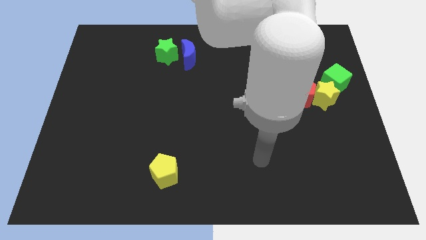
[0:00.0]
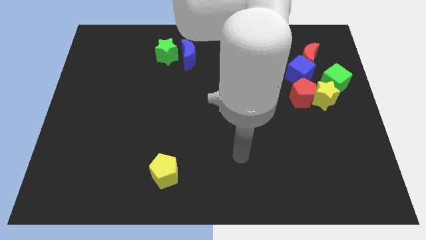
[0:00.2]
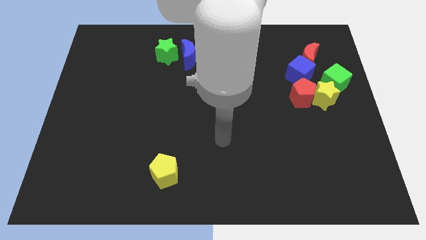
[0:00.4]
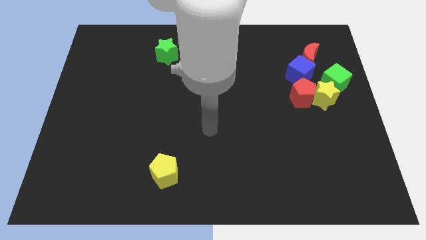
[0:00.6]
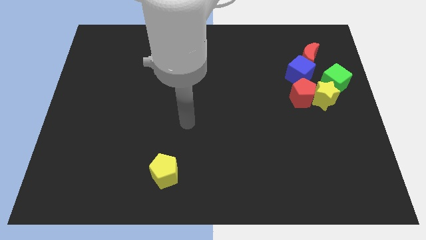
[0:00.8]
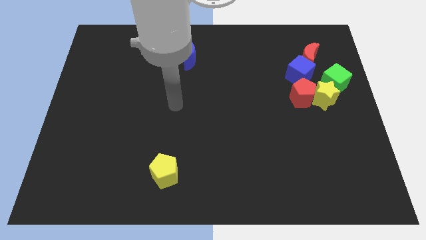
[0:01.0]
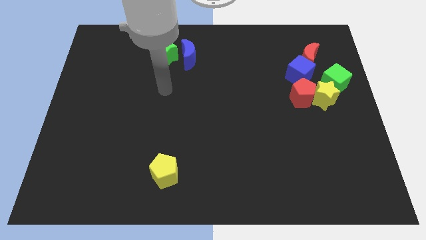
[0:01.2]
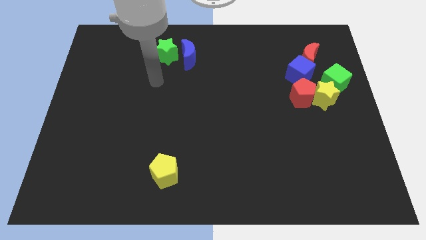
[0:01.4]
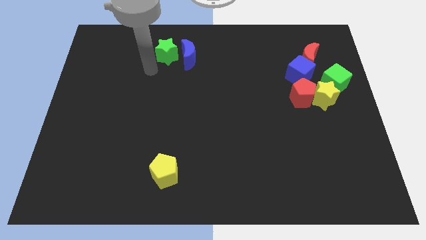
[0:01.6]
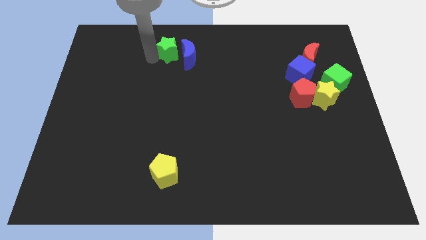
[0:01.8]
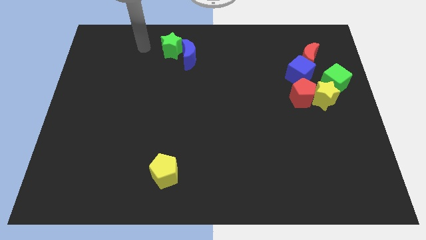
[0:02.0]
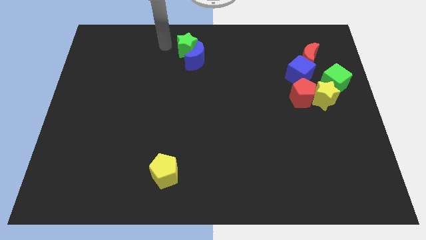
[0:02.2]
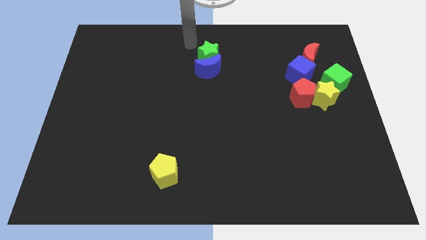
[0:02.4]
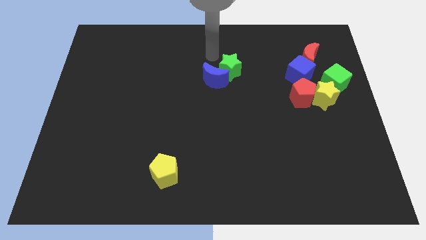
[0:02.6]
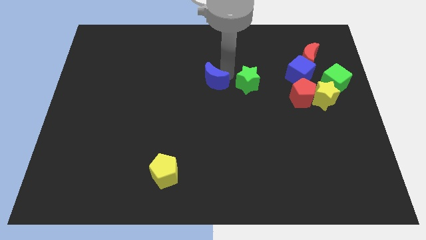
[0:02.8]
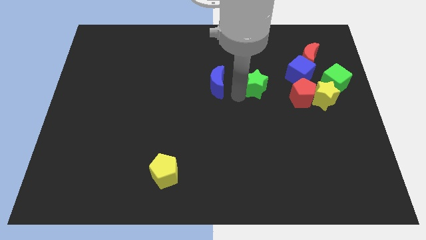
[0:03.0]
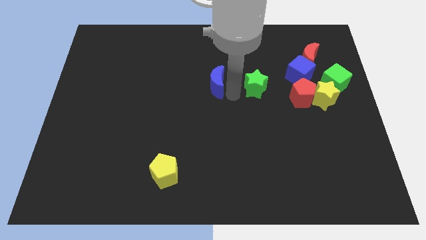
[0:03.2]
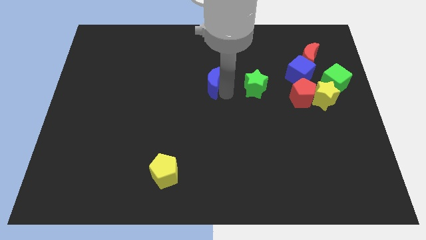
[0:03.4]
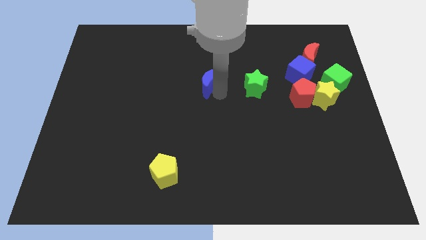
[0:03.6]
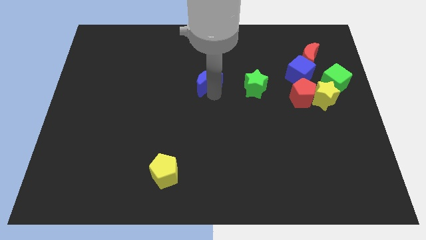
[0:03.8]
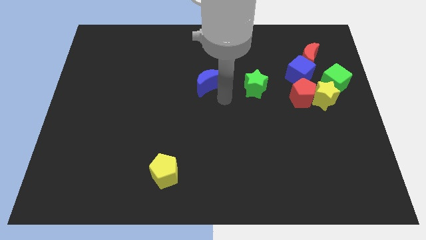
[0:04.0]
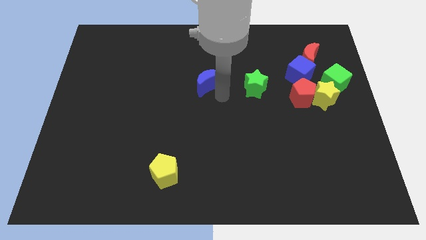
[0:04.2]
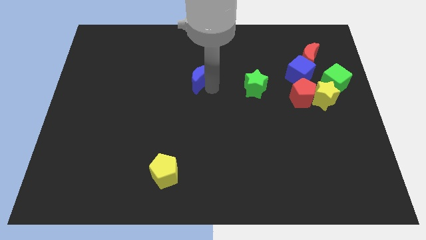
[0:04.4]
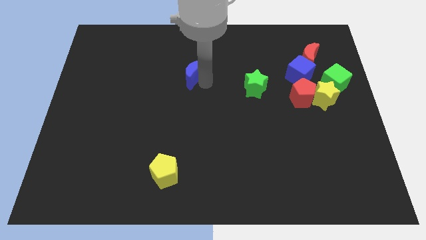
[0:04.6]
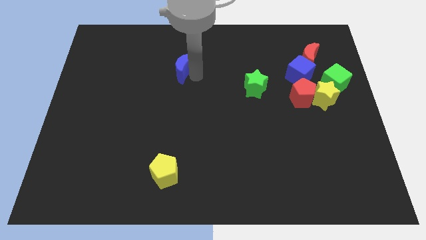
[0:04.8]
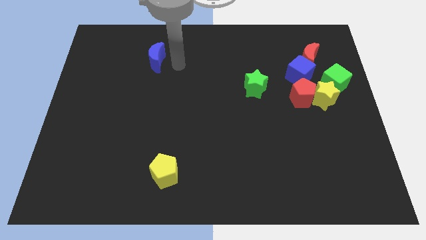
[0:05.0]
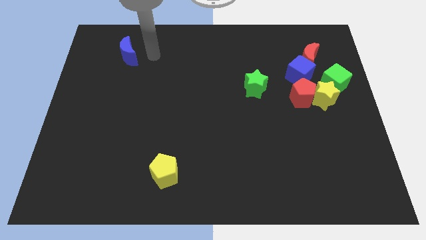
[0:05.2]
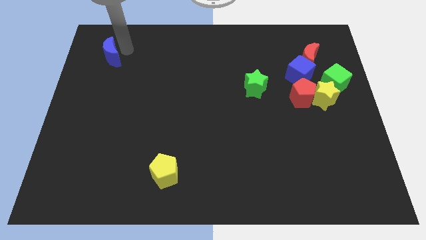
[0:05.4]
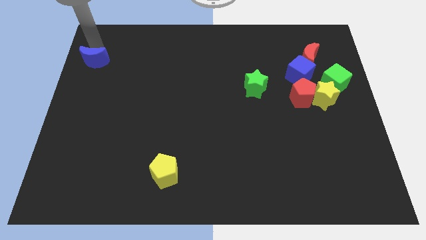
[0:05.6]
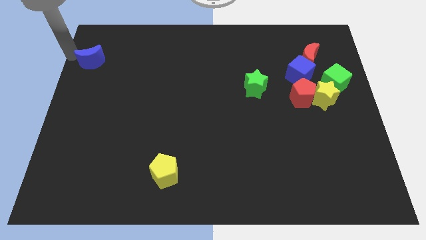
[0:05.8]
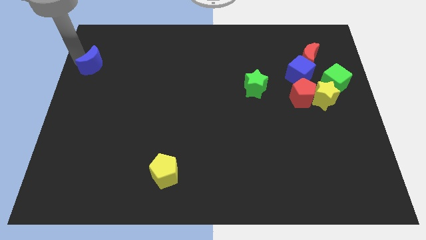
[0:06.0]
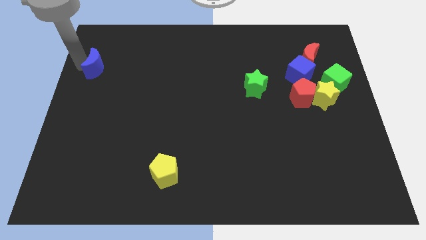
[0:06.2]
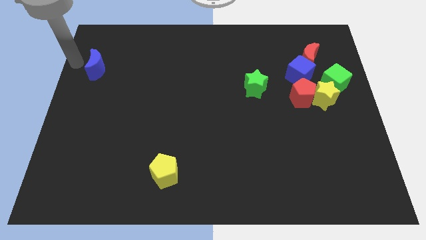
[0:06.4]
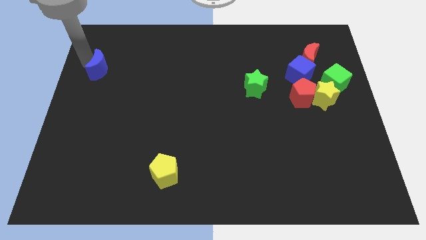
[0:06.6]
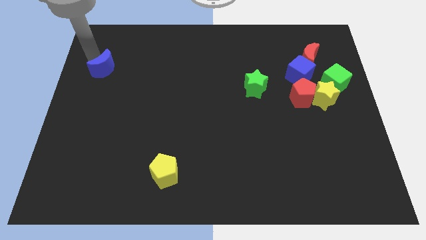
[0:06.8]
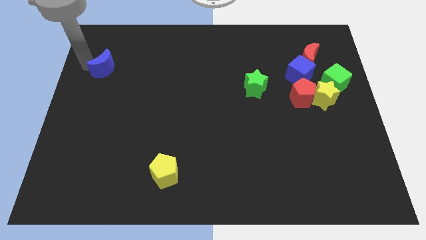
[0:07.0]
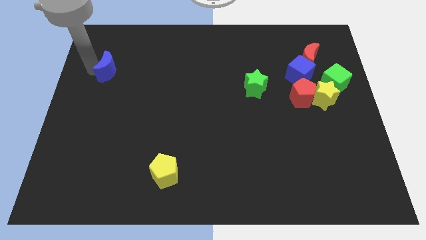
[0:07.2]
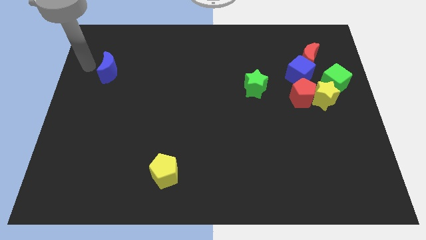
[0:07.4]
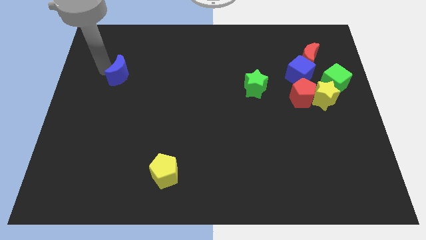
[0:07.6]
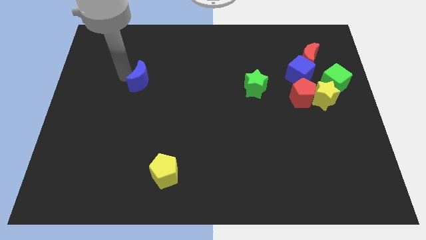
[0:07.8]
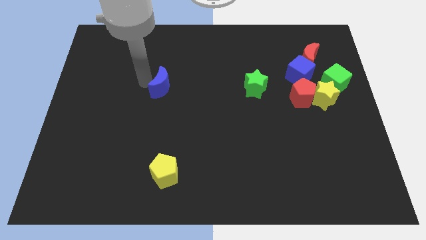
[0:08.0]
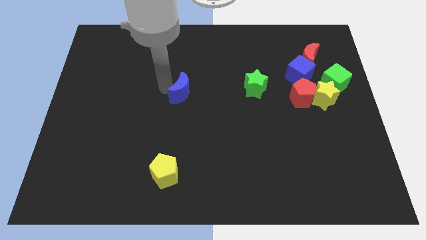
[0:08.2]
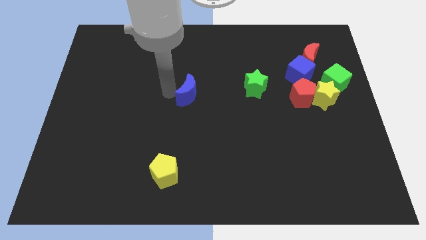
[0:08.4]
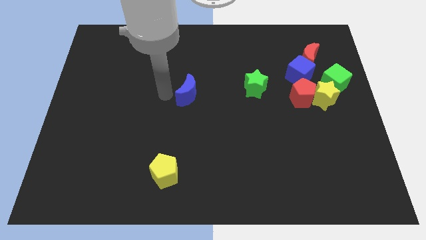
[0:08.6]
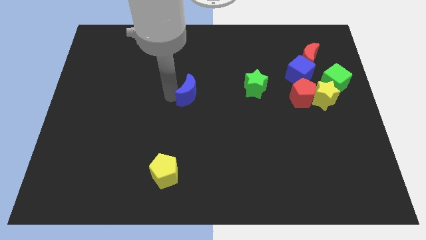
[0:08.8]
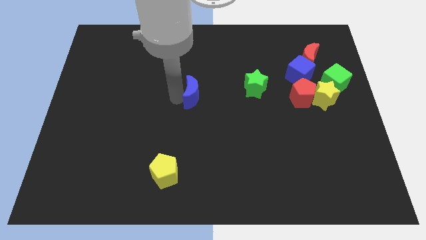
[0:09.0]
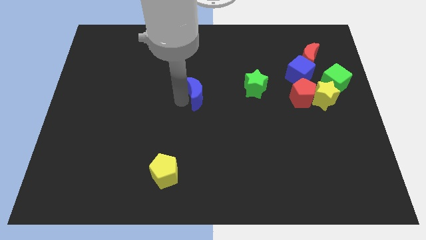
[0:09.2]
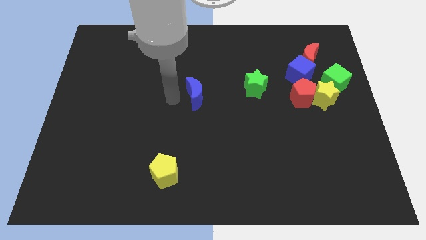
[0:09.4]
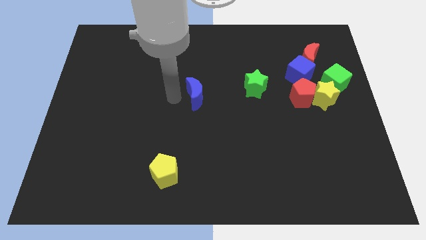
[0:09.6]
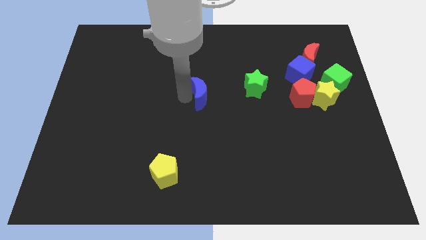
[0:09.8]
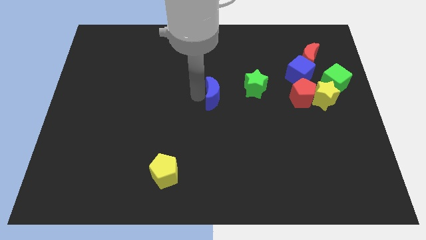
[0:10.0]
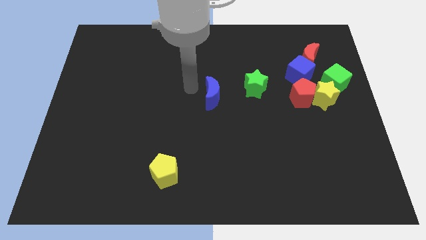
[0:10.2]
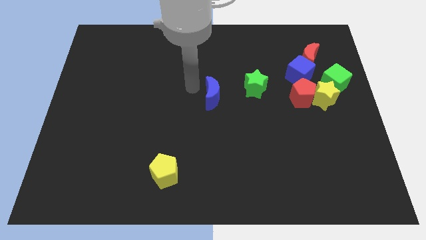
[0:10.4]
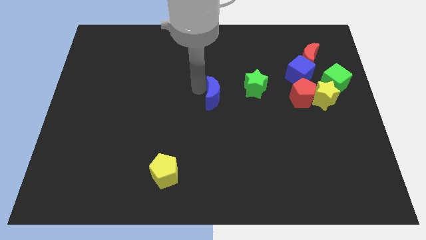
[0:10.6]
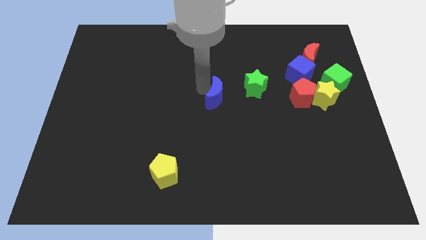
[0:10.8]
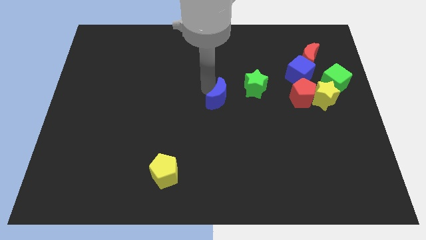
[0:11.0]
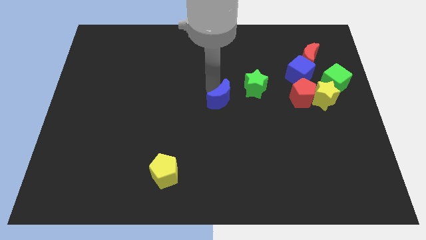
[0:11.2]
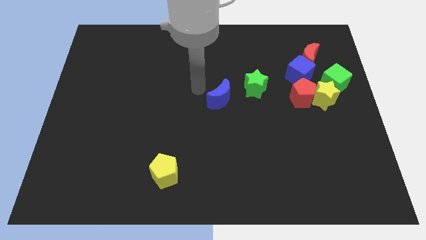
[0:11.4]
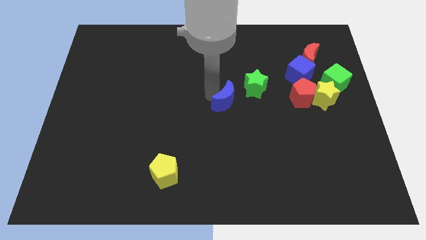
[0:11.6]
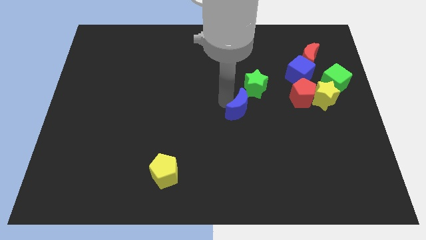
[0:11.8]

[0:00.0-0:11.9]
move the blue moon downwards and then right

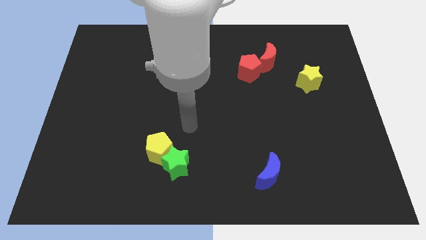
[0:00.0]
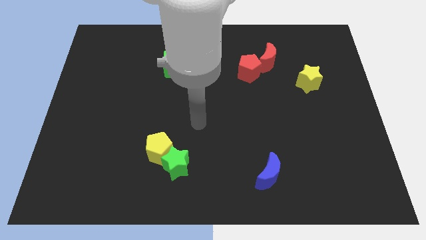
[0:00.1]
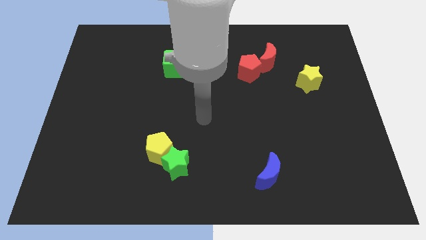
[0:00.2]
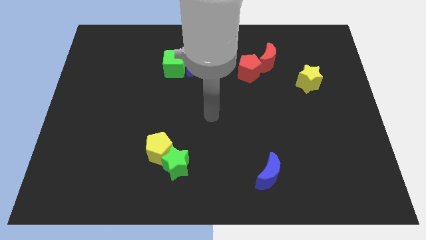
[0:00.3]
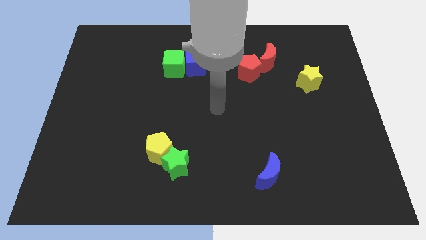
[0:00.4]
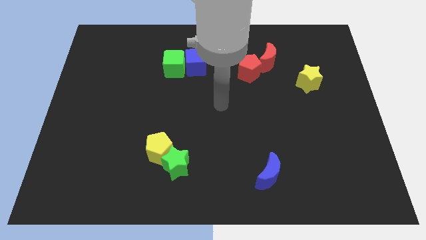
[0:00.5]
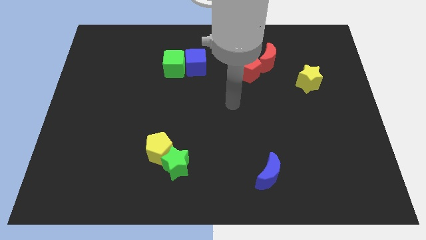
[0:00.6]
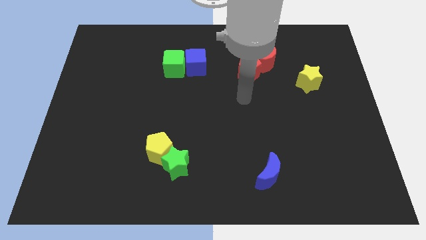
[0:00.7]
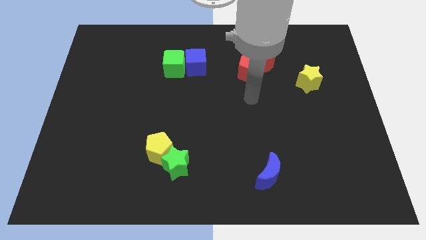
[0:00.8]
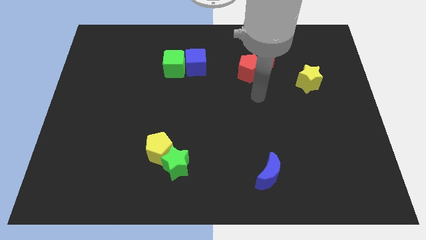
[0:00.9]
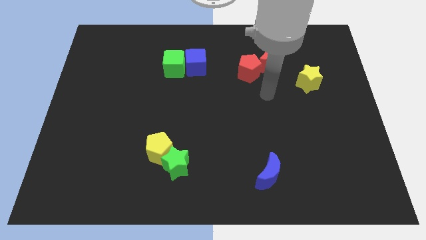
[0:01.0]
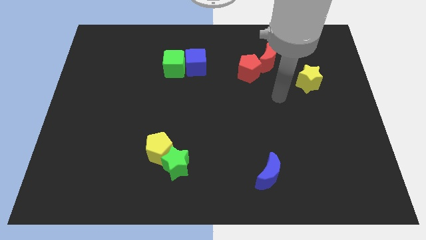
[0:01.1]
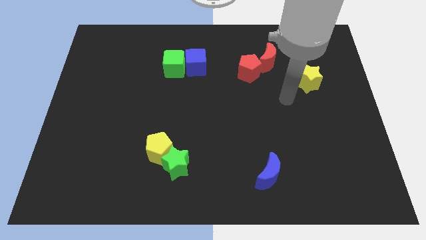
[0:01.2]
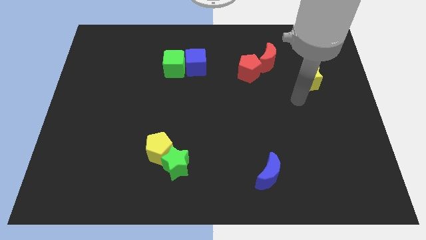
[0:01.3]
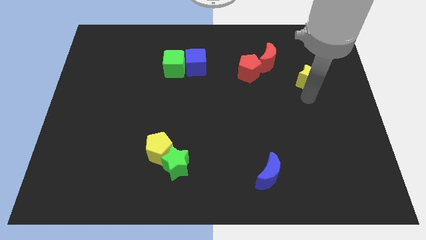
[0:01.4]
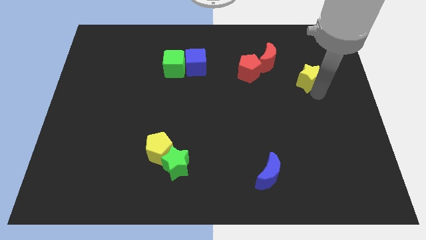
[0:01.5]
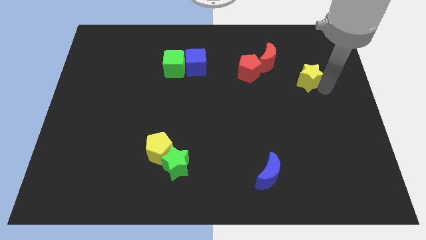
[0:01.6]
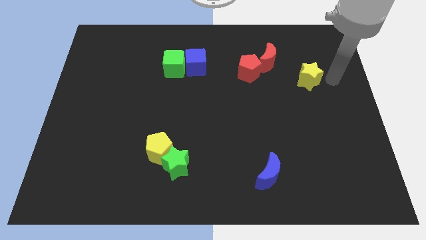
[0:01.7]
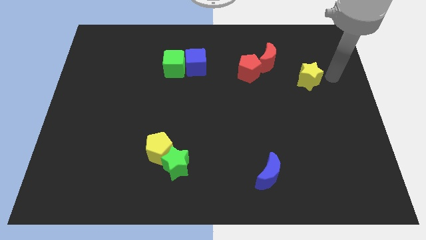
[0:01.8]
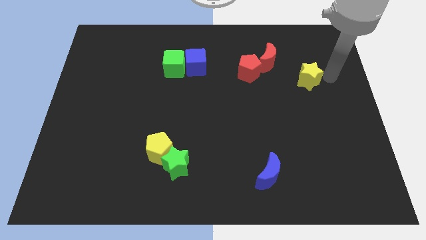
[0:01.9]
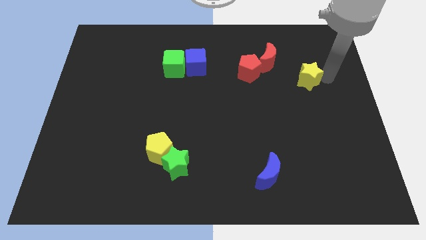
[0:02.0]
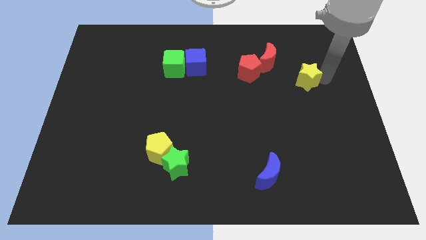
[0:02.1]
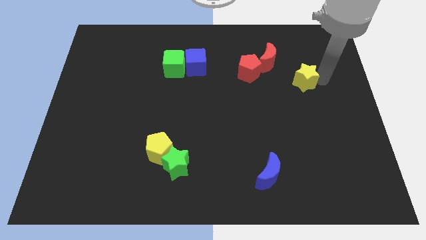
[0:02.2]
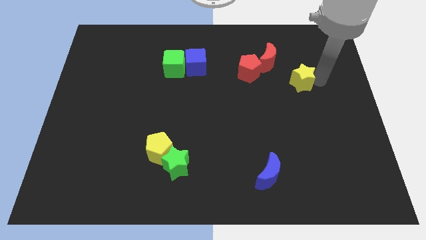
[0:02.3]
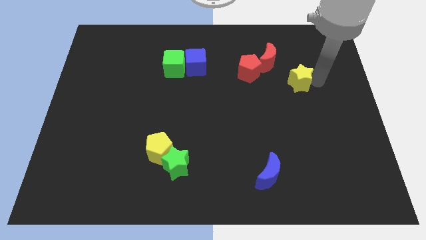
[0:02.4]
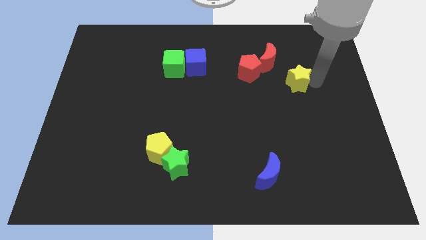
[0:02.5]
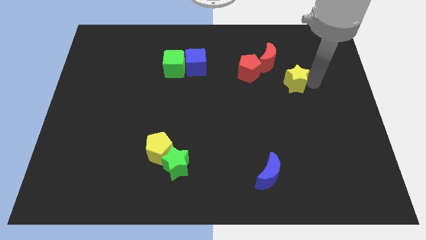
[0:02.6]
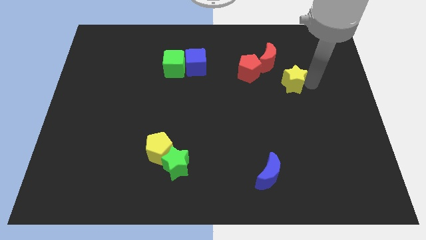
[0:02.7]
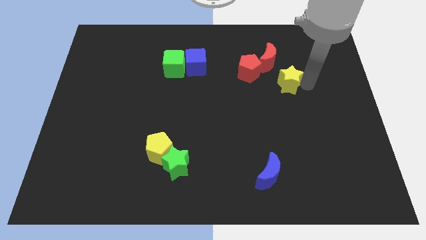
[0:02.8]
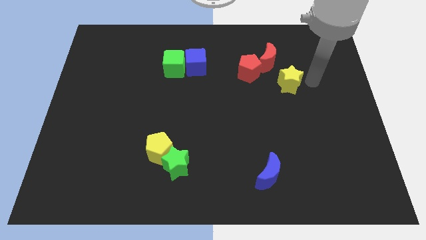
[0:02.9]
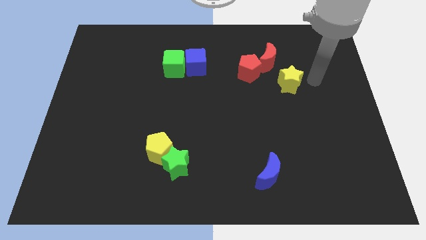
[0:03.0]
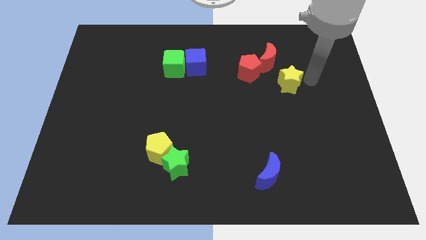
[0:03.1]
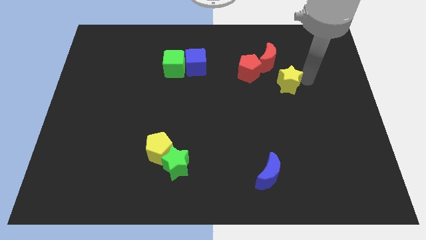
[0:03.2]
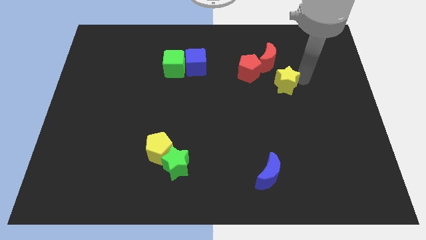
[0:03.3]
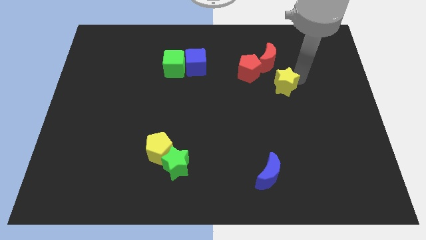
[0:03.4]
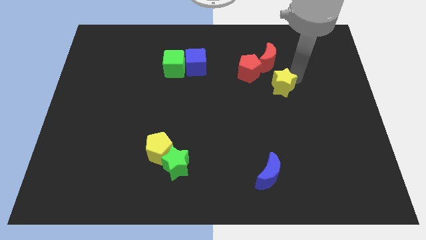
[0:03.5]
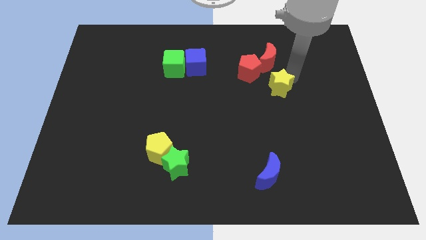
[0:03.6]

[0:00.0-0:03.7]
move the yellow star a little bit left
